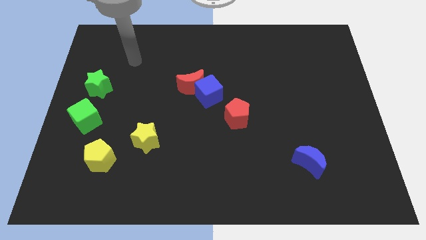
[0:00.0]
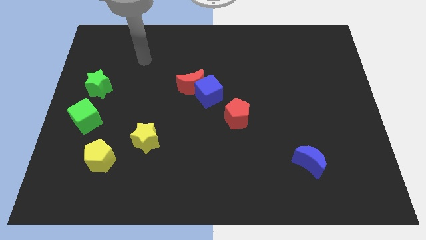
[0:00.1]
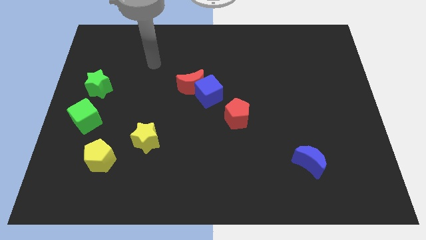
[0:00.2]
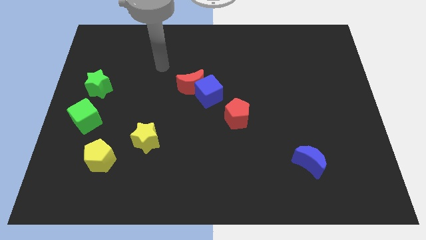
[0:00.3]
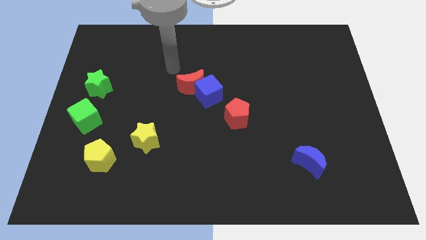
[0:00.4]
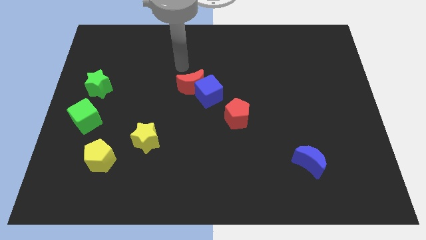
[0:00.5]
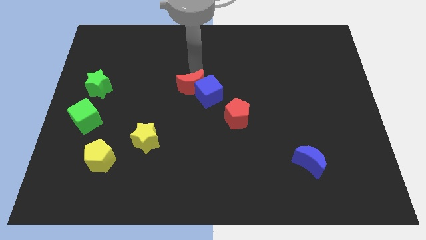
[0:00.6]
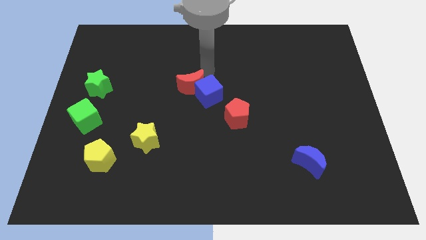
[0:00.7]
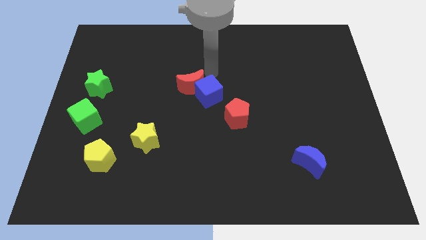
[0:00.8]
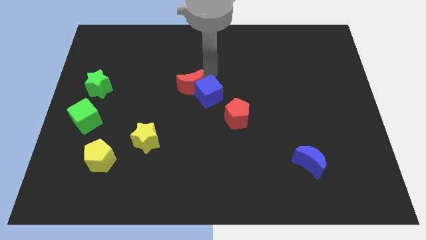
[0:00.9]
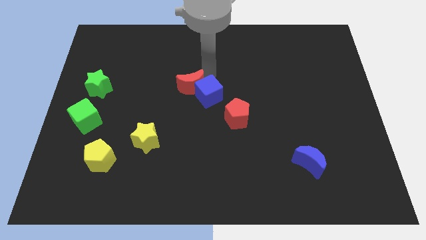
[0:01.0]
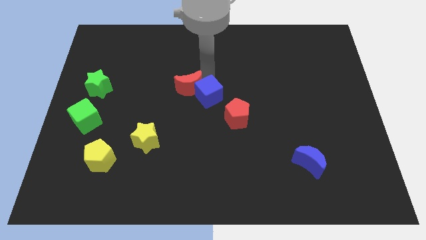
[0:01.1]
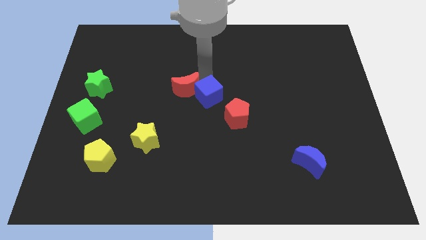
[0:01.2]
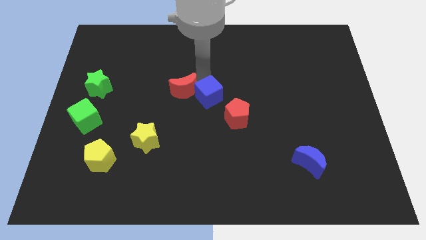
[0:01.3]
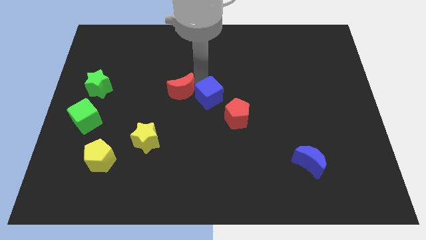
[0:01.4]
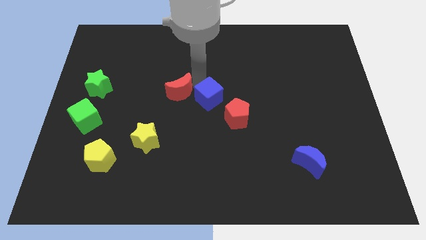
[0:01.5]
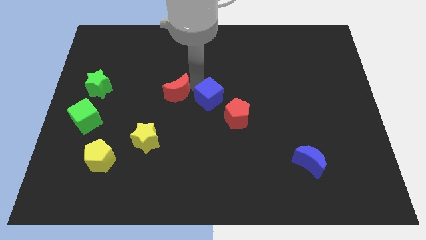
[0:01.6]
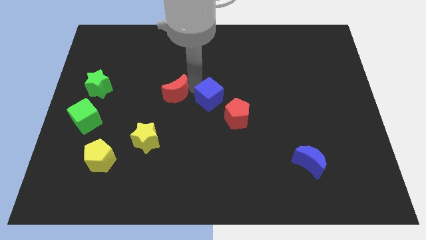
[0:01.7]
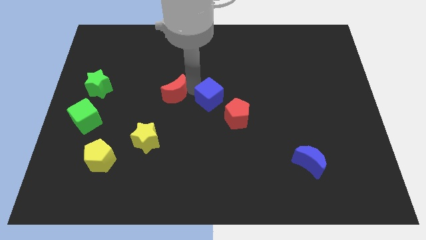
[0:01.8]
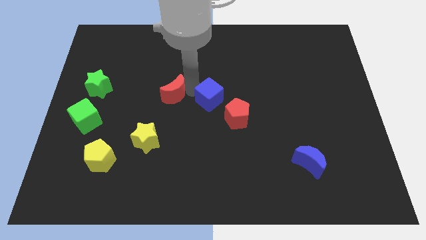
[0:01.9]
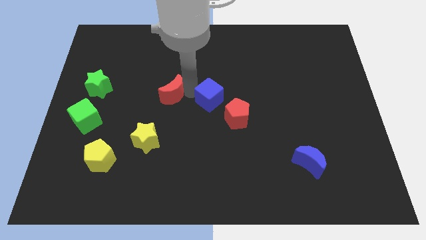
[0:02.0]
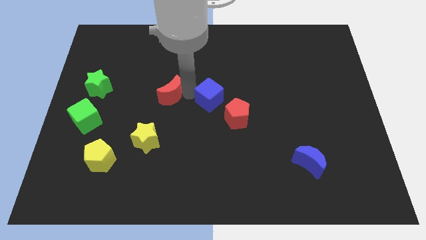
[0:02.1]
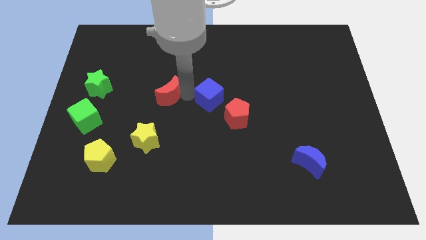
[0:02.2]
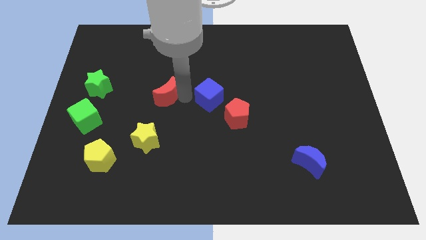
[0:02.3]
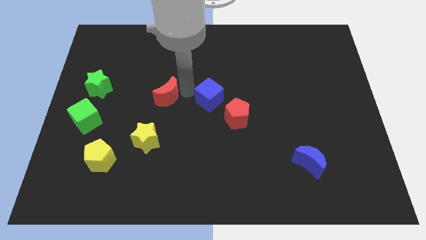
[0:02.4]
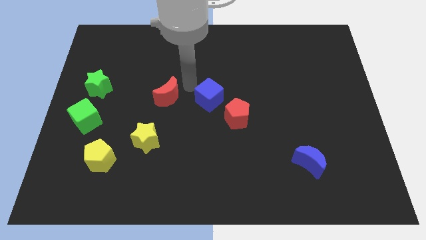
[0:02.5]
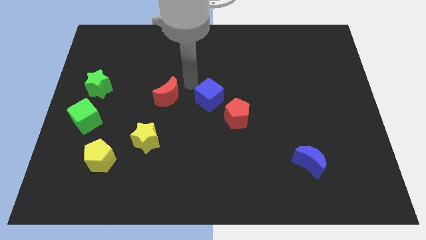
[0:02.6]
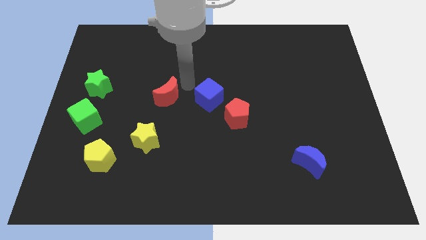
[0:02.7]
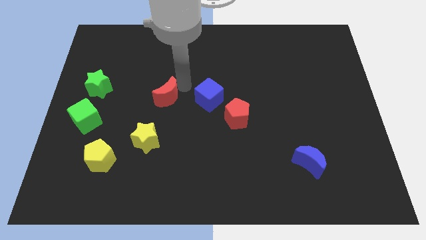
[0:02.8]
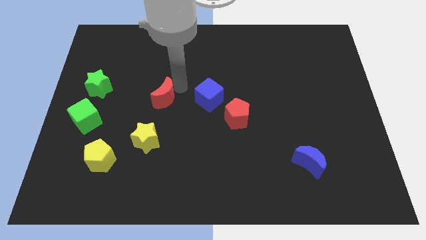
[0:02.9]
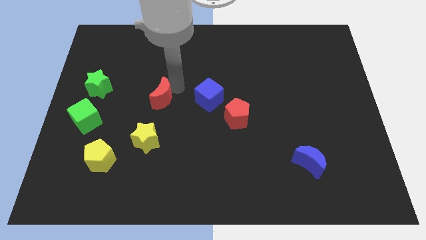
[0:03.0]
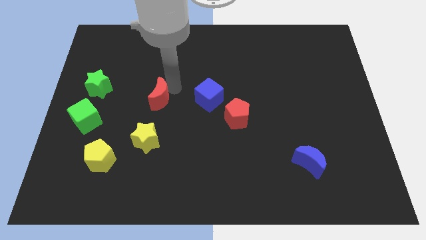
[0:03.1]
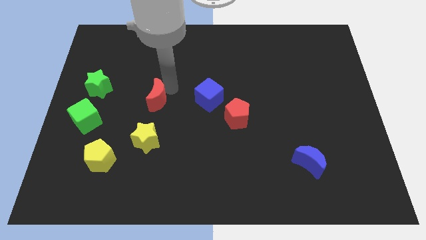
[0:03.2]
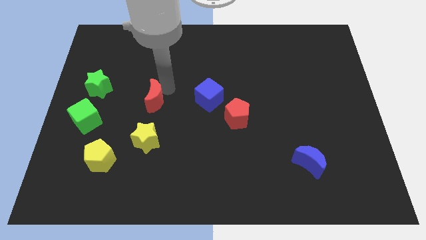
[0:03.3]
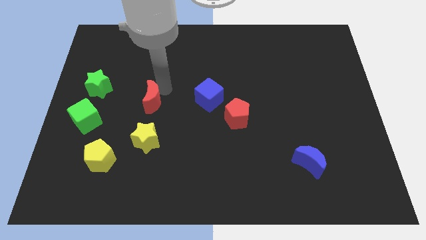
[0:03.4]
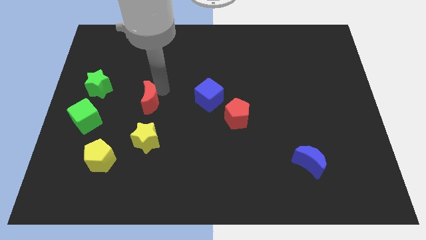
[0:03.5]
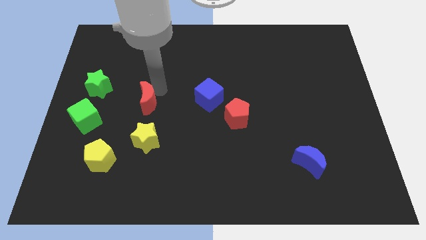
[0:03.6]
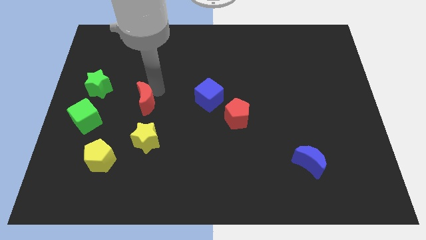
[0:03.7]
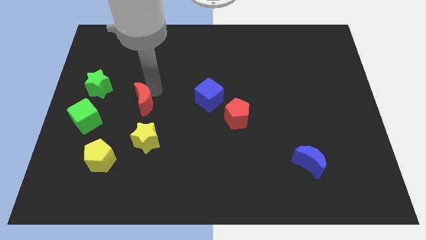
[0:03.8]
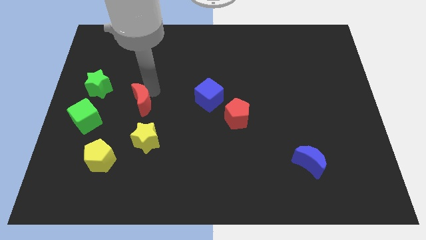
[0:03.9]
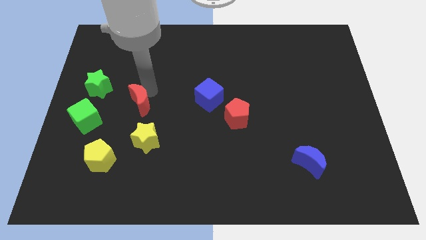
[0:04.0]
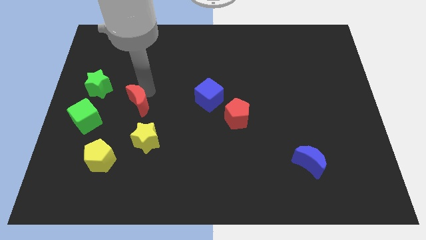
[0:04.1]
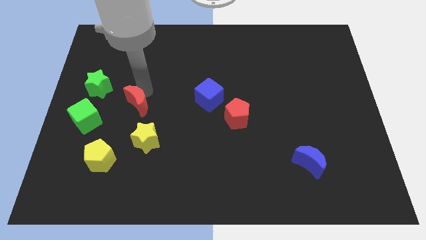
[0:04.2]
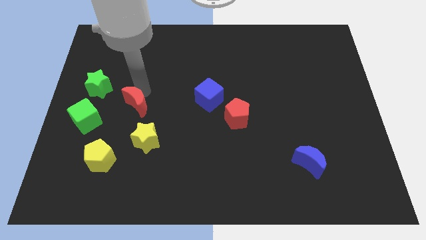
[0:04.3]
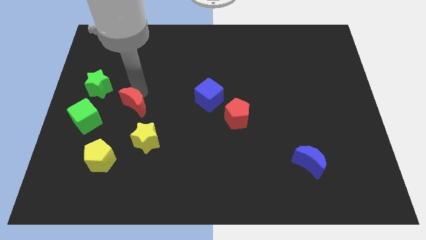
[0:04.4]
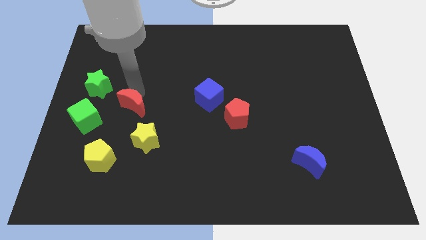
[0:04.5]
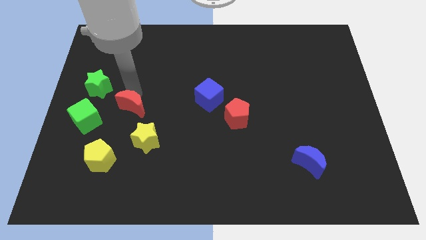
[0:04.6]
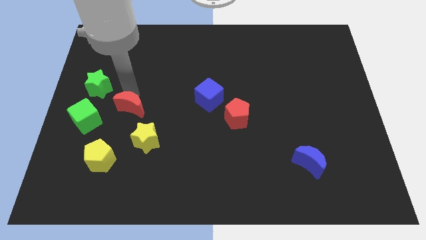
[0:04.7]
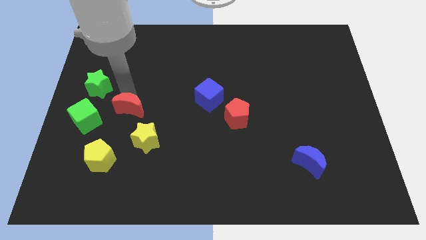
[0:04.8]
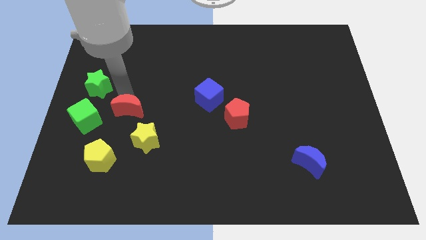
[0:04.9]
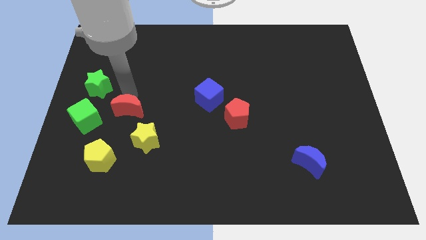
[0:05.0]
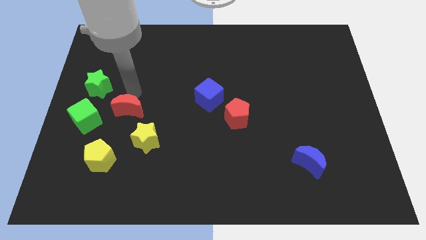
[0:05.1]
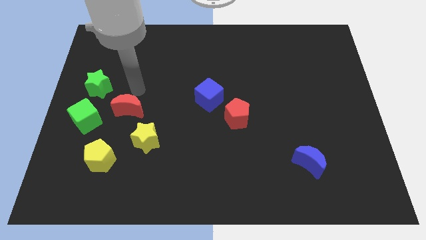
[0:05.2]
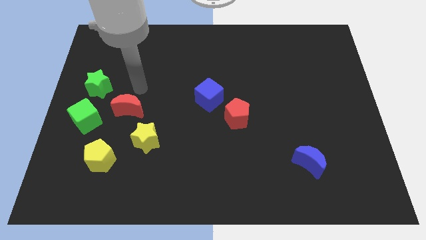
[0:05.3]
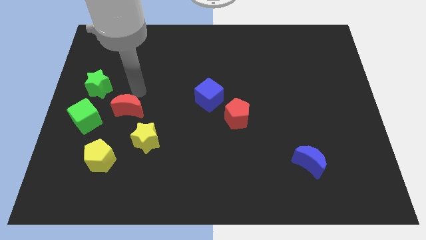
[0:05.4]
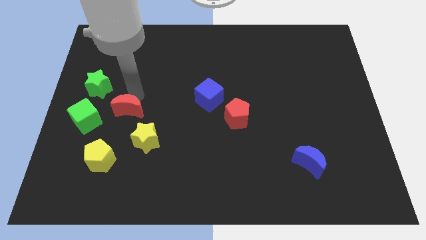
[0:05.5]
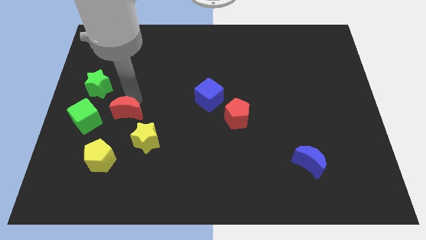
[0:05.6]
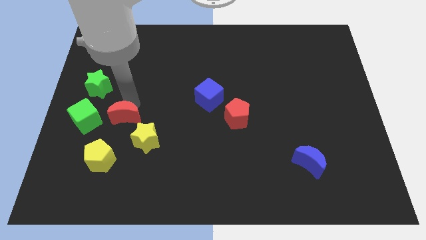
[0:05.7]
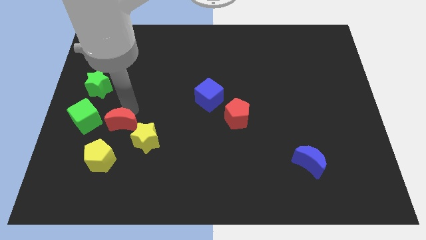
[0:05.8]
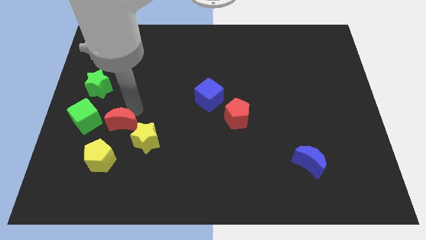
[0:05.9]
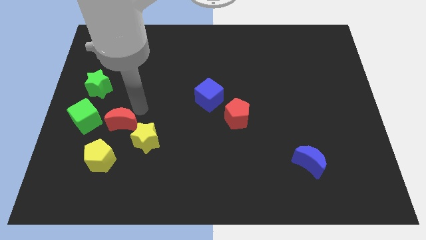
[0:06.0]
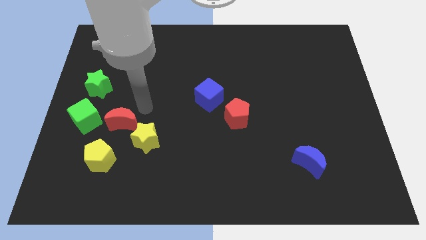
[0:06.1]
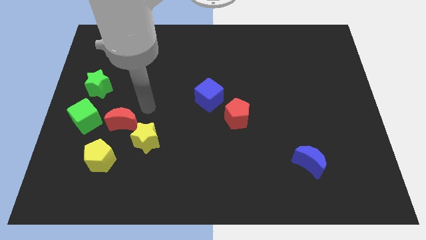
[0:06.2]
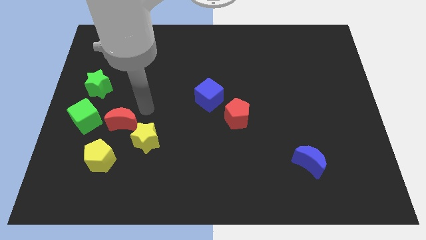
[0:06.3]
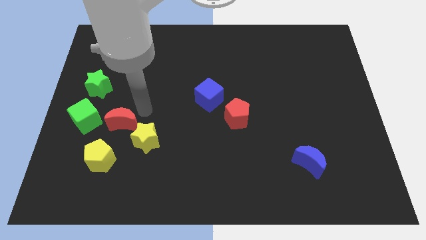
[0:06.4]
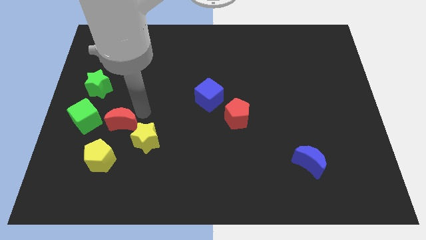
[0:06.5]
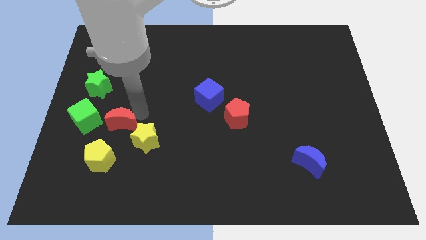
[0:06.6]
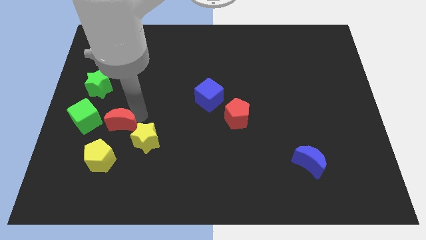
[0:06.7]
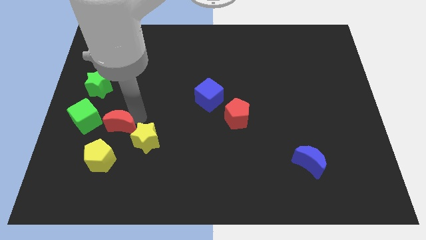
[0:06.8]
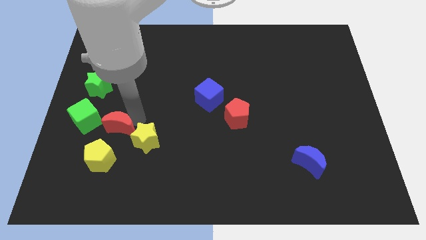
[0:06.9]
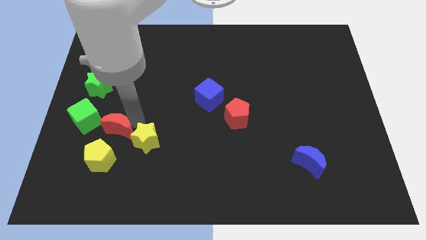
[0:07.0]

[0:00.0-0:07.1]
slide the red moon downwards and to the left

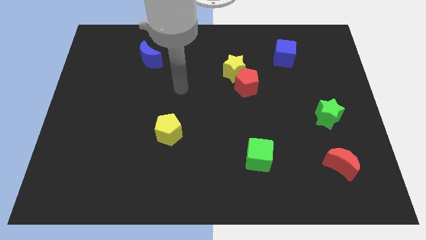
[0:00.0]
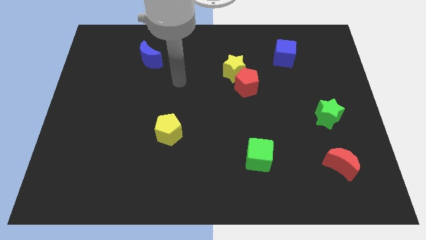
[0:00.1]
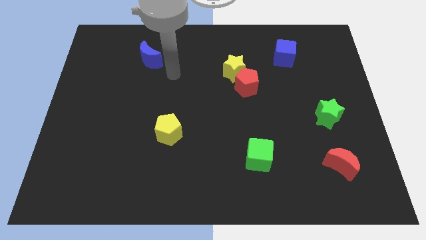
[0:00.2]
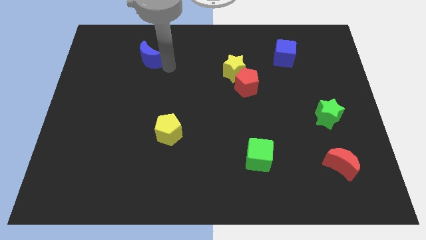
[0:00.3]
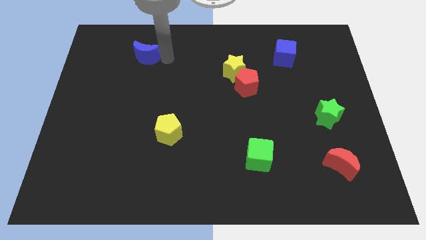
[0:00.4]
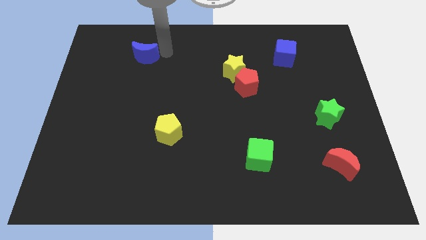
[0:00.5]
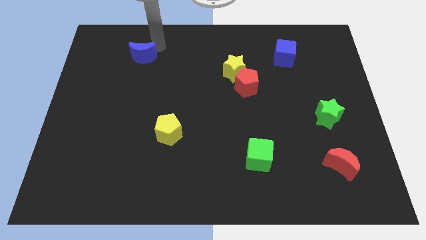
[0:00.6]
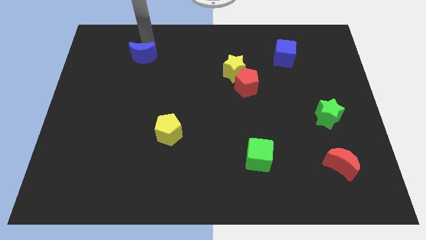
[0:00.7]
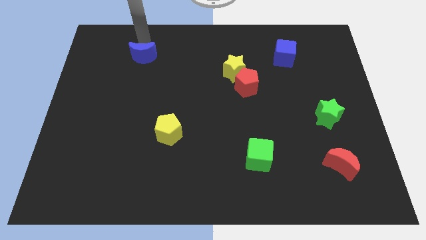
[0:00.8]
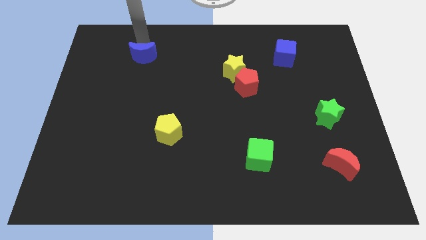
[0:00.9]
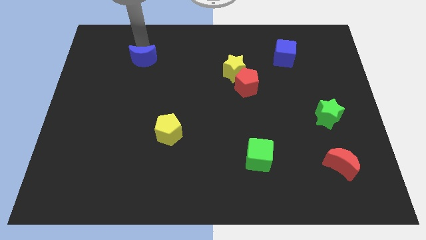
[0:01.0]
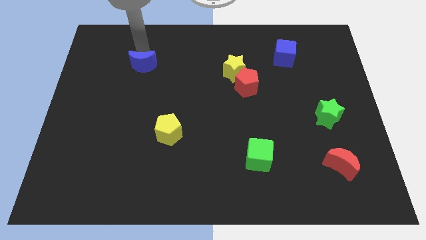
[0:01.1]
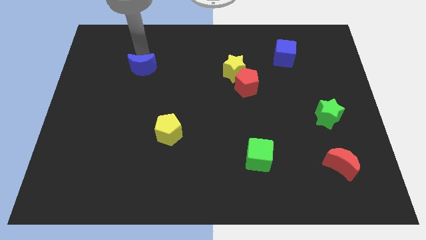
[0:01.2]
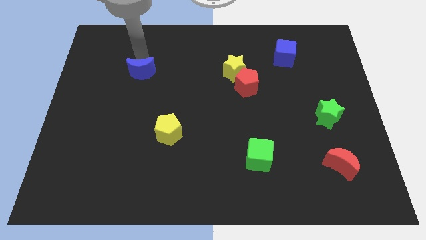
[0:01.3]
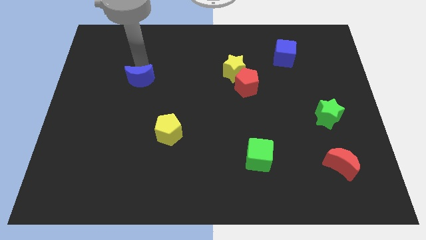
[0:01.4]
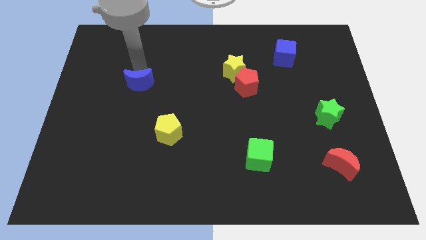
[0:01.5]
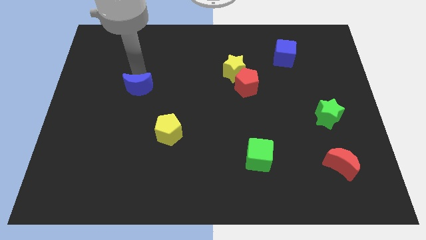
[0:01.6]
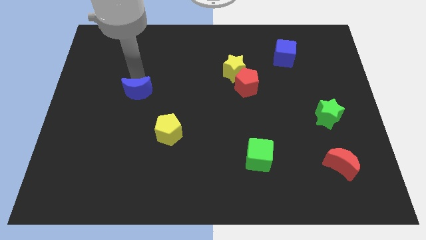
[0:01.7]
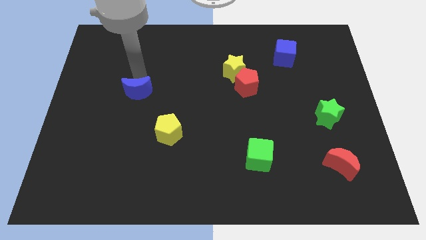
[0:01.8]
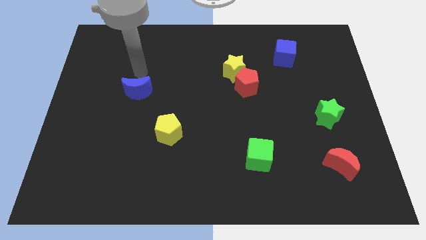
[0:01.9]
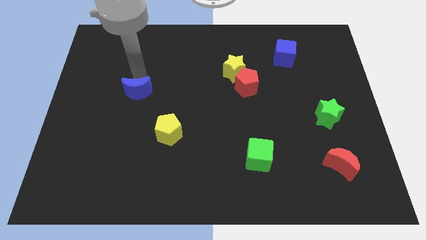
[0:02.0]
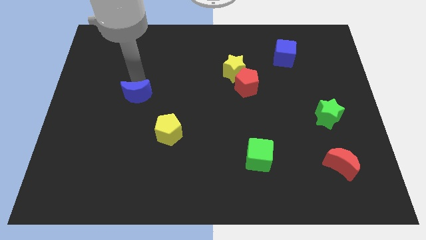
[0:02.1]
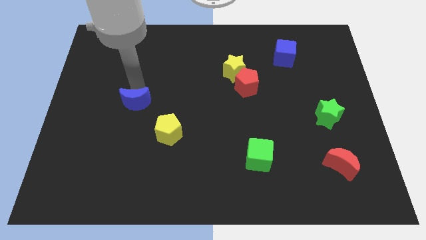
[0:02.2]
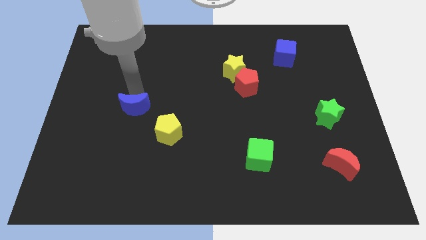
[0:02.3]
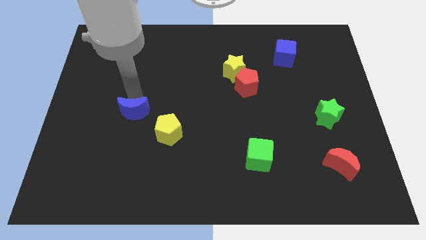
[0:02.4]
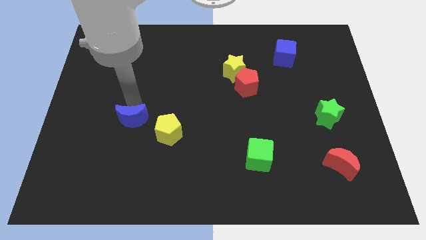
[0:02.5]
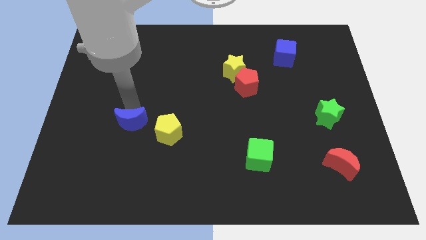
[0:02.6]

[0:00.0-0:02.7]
slide the blue moon down
